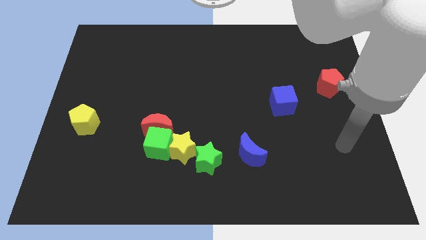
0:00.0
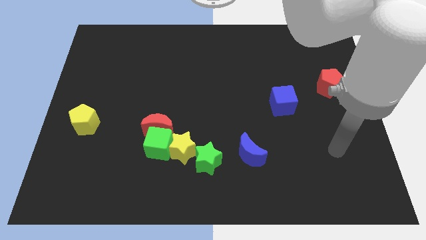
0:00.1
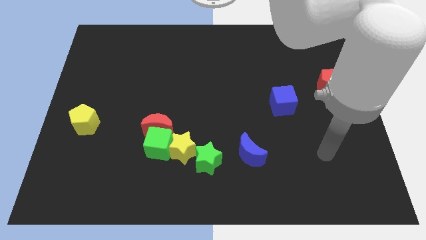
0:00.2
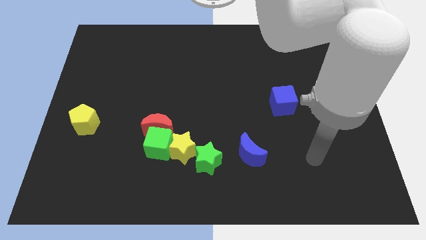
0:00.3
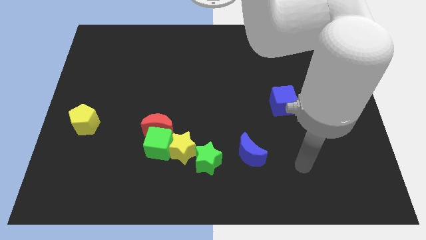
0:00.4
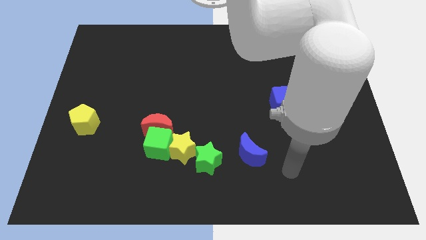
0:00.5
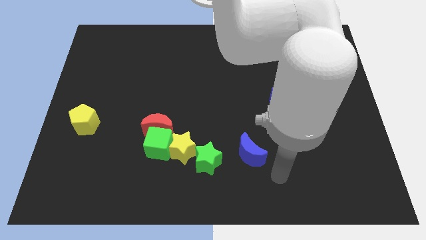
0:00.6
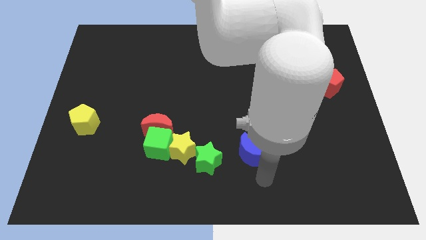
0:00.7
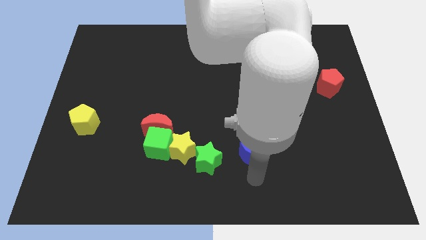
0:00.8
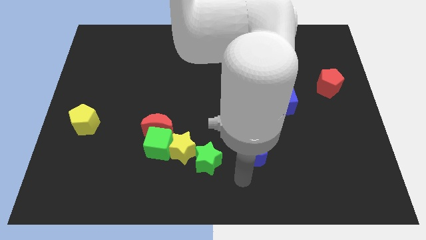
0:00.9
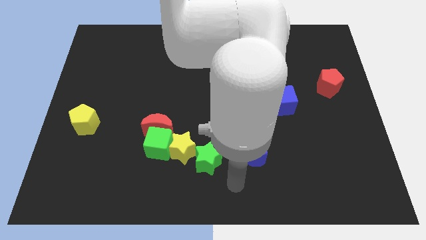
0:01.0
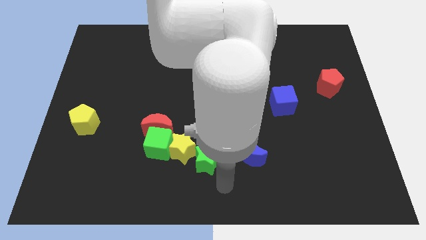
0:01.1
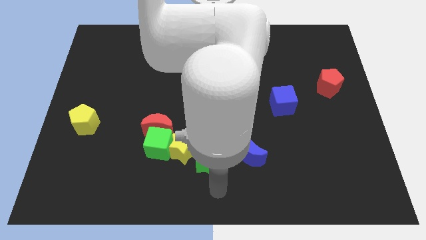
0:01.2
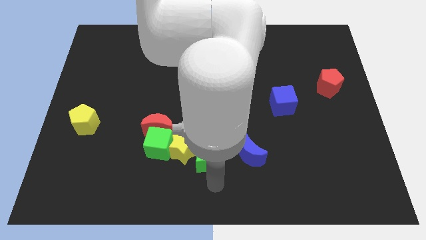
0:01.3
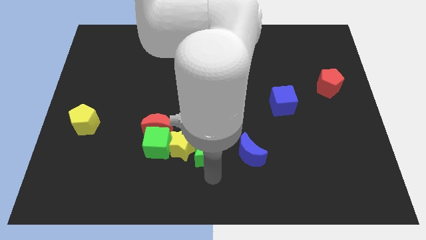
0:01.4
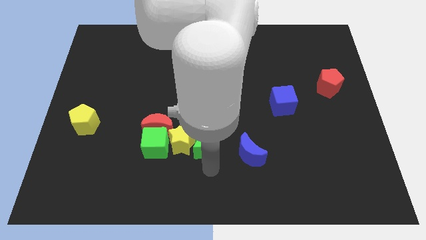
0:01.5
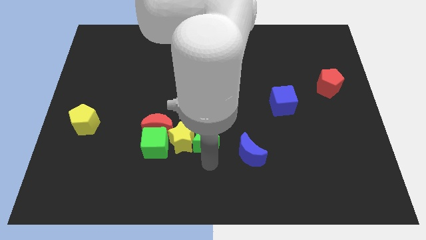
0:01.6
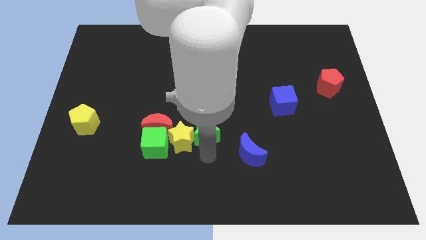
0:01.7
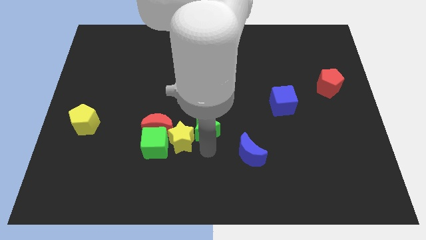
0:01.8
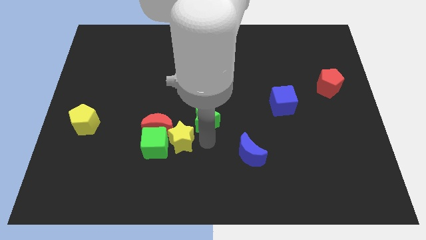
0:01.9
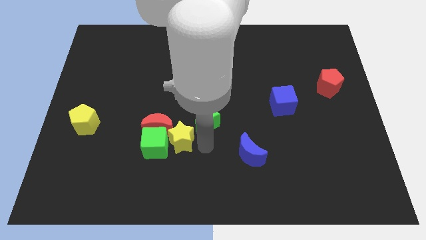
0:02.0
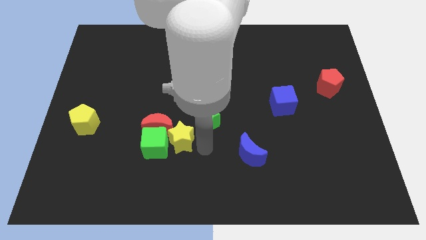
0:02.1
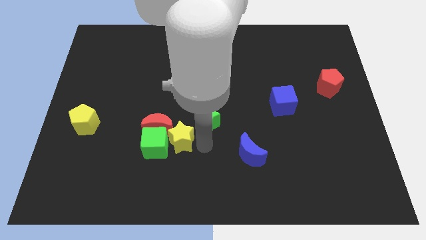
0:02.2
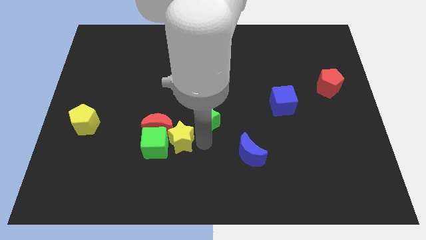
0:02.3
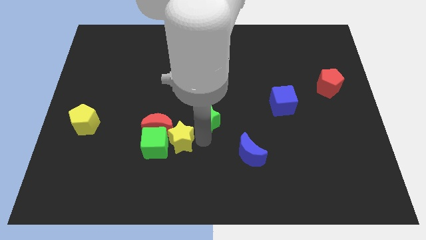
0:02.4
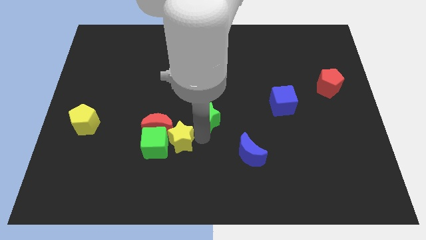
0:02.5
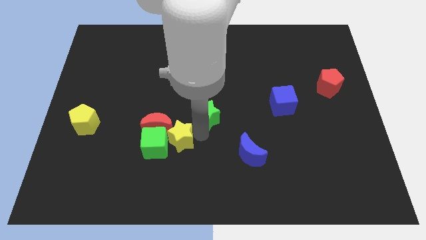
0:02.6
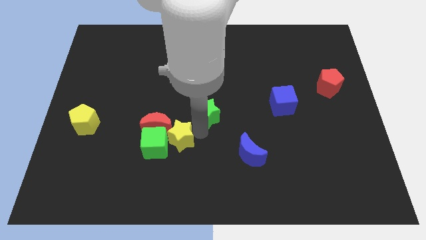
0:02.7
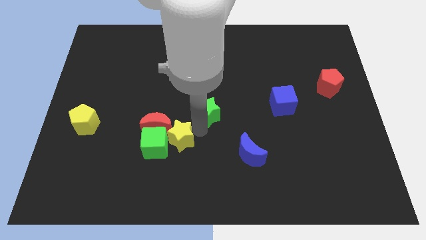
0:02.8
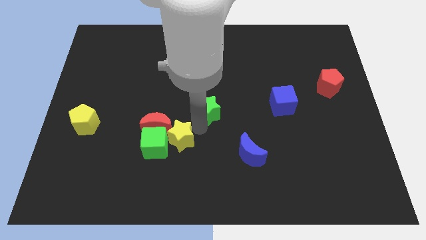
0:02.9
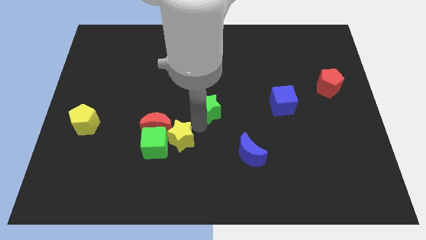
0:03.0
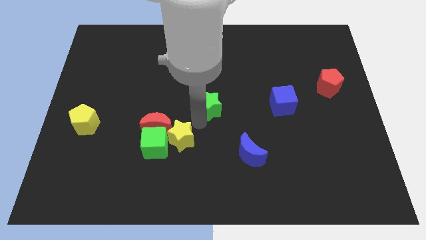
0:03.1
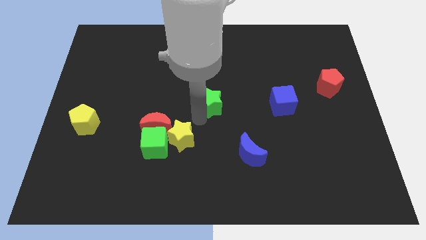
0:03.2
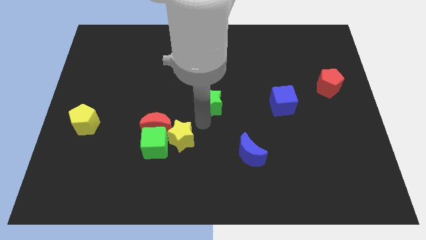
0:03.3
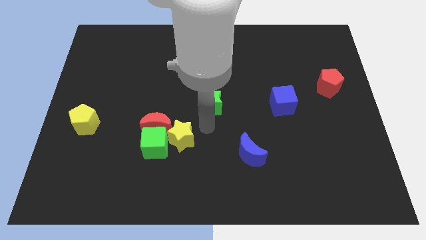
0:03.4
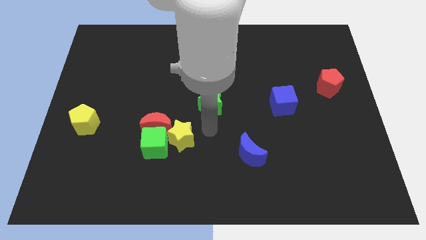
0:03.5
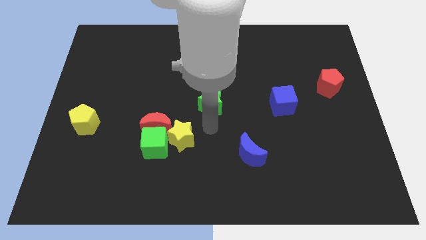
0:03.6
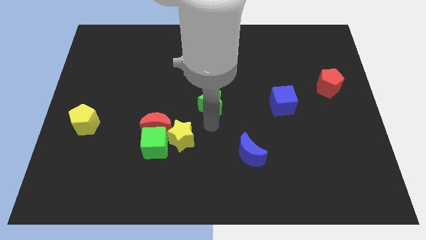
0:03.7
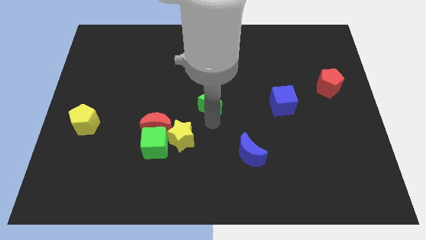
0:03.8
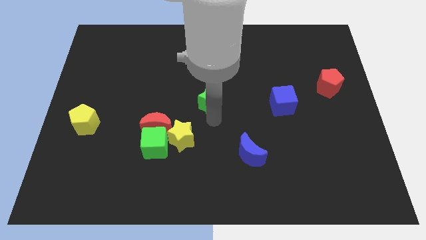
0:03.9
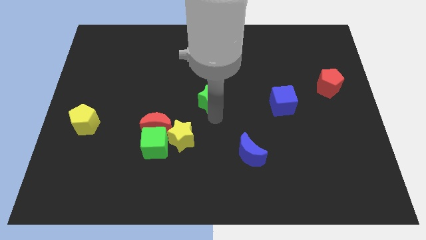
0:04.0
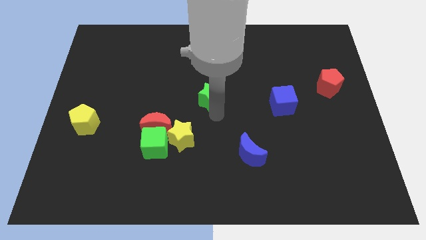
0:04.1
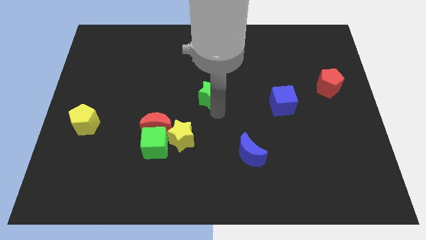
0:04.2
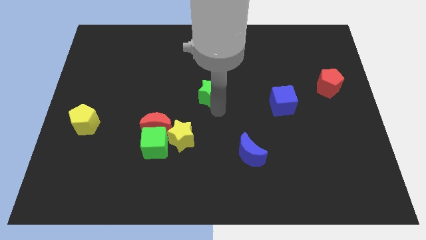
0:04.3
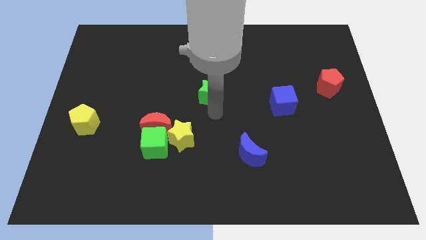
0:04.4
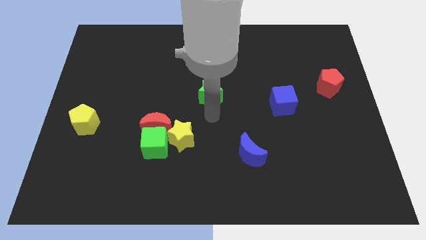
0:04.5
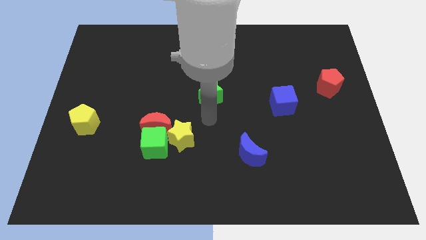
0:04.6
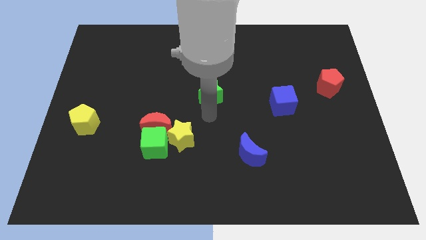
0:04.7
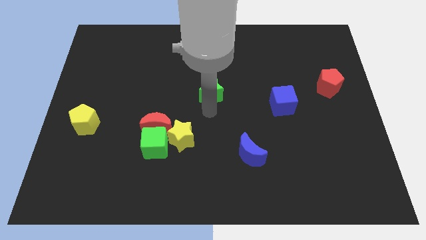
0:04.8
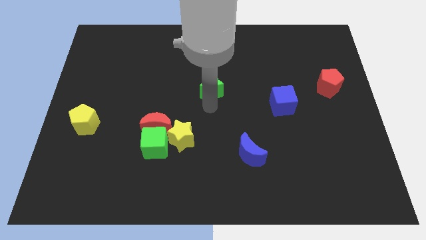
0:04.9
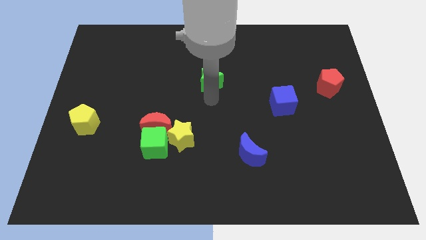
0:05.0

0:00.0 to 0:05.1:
push the green star upwards

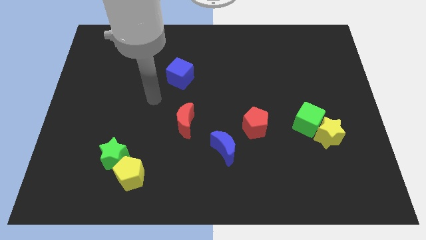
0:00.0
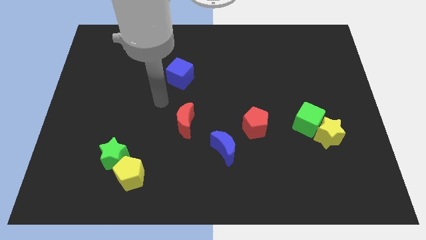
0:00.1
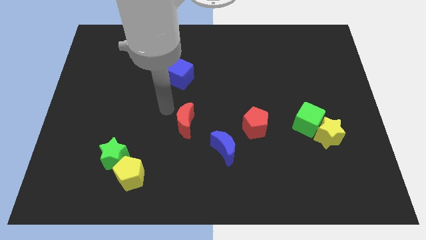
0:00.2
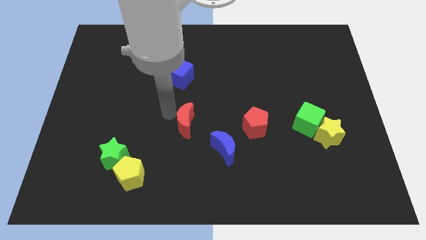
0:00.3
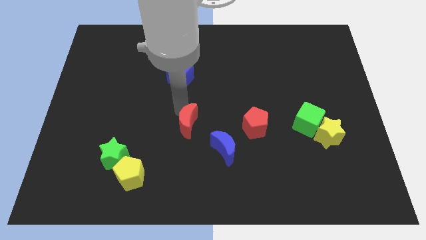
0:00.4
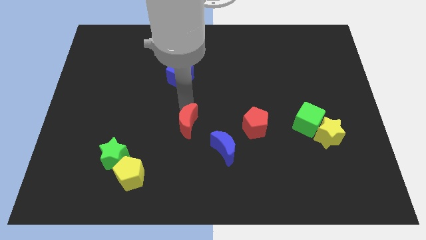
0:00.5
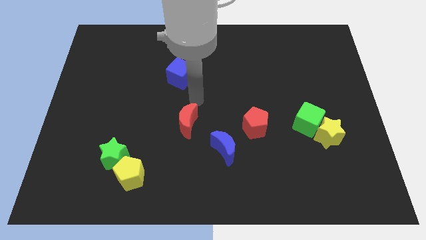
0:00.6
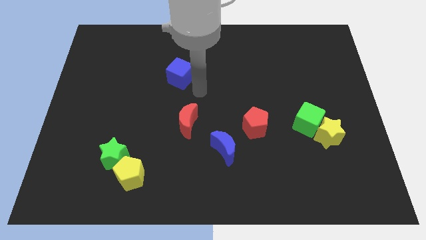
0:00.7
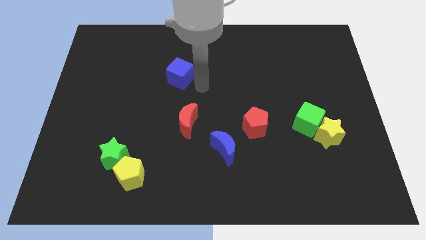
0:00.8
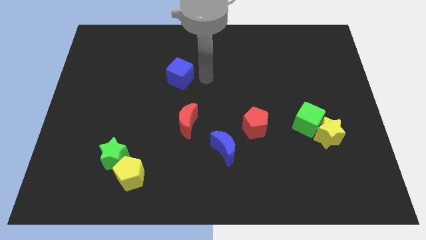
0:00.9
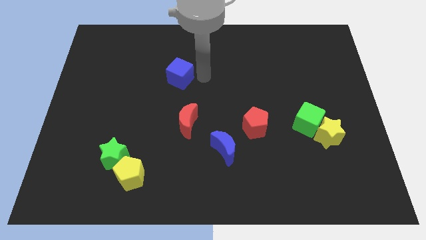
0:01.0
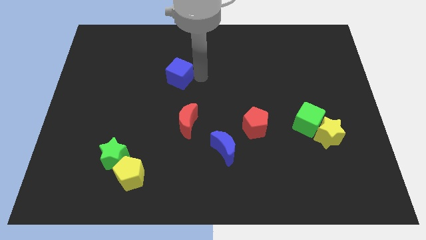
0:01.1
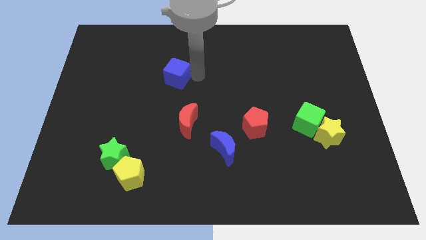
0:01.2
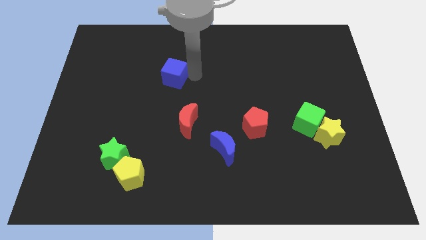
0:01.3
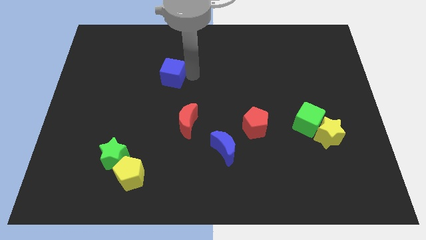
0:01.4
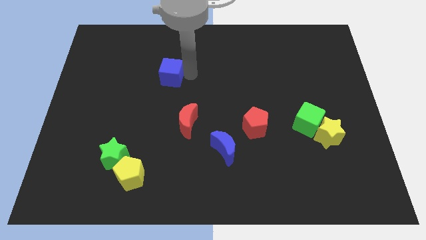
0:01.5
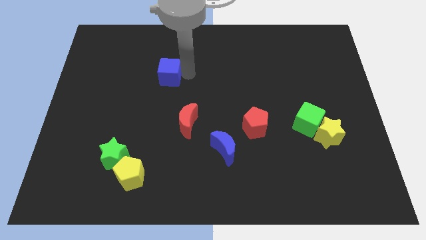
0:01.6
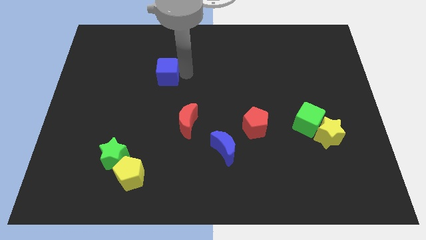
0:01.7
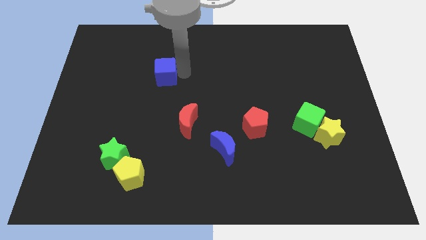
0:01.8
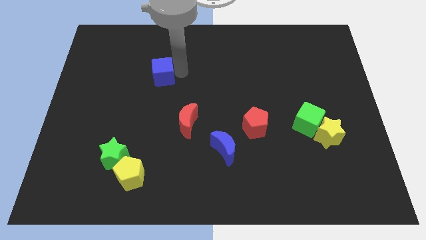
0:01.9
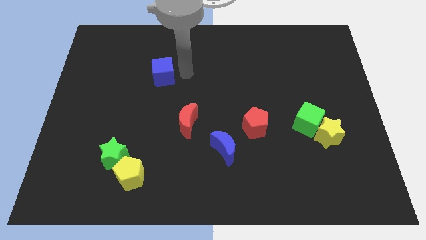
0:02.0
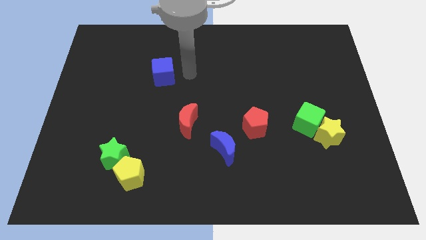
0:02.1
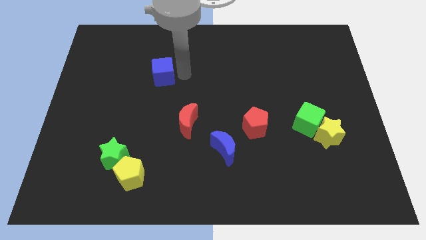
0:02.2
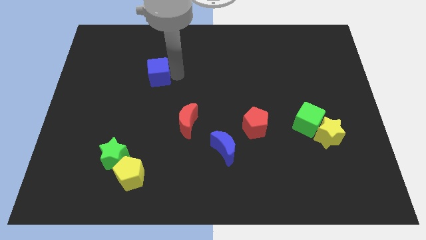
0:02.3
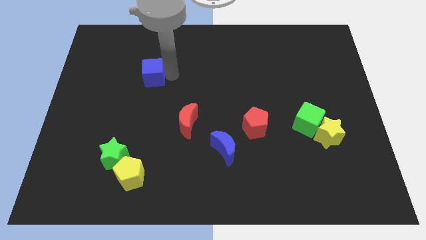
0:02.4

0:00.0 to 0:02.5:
slightly slide the blue cube left

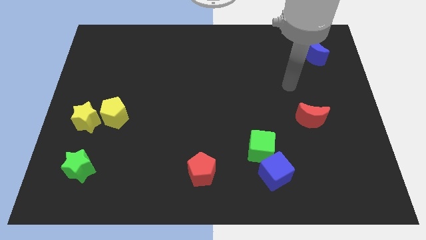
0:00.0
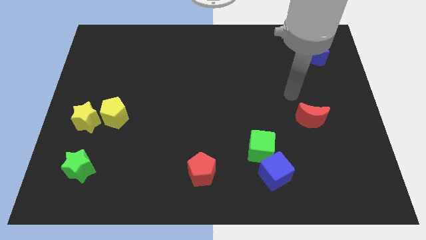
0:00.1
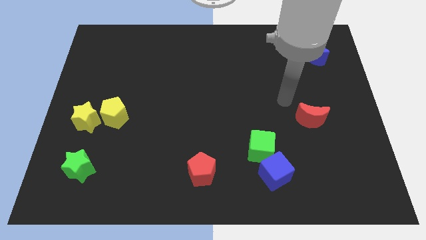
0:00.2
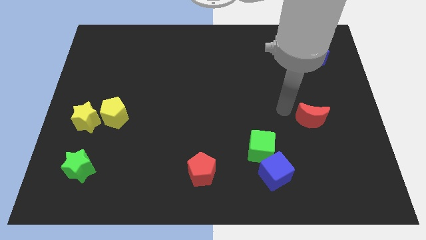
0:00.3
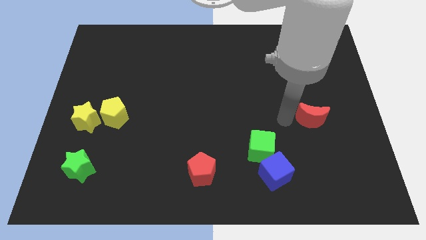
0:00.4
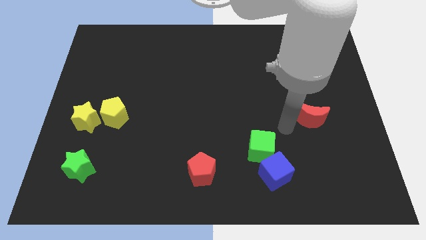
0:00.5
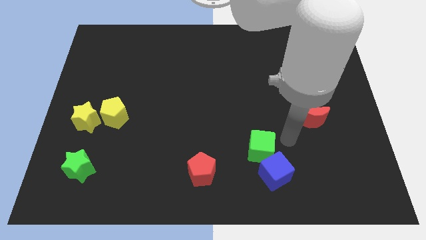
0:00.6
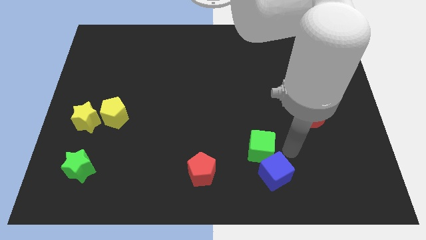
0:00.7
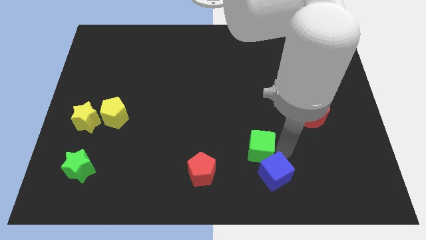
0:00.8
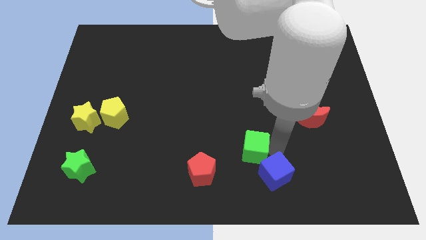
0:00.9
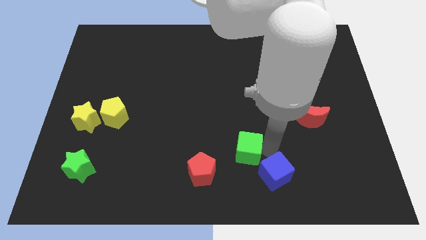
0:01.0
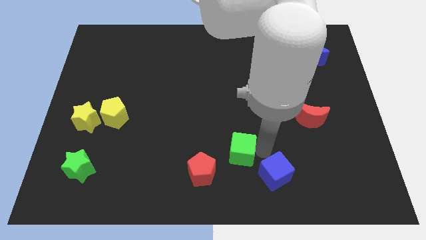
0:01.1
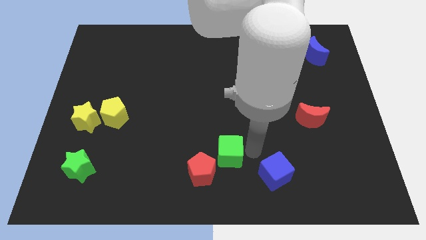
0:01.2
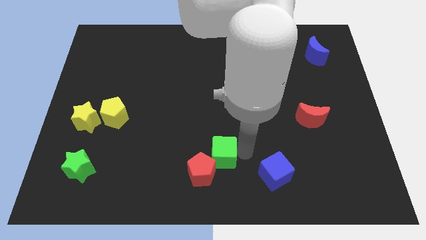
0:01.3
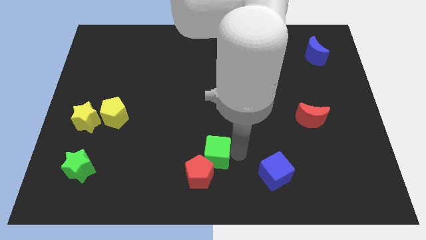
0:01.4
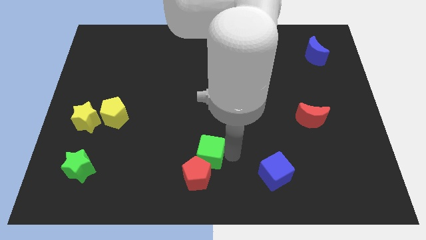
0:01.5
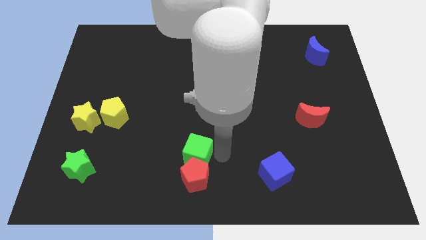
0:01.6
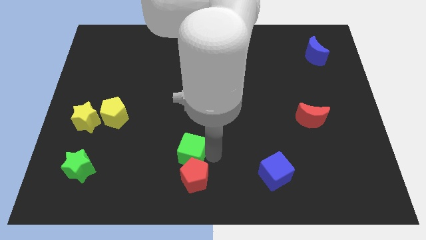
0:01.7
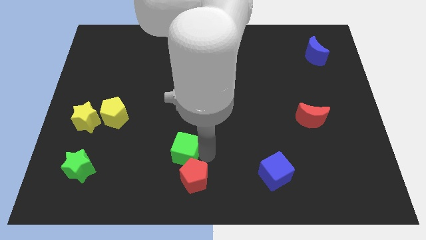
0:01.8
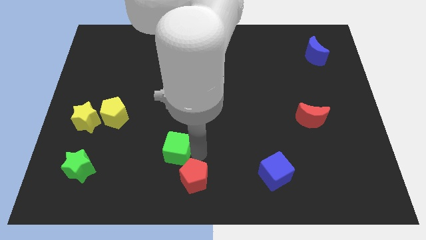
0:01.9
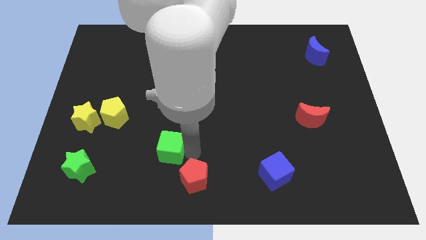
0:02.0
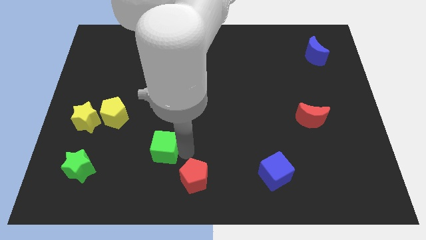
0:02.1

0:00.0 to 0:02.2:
push the green cube left
